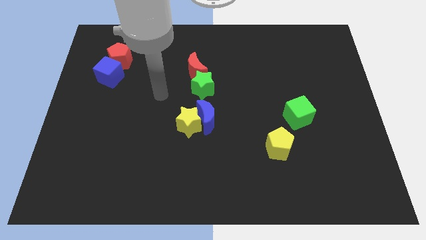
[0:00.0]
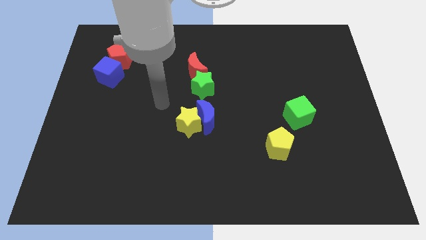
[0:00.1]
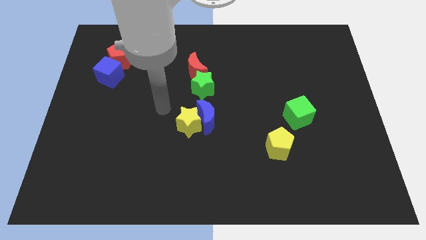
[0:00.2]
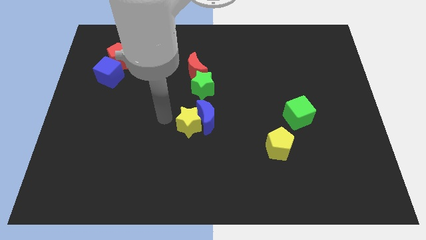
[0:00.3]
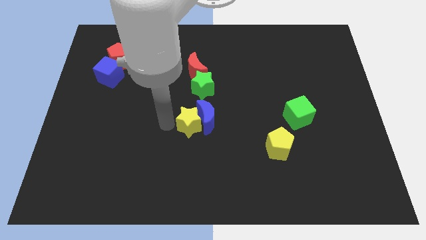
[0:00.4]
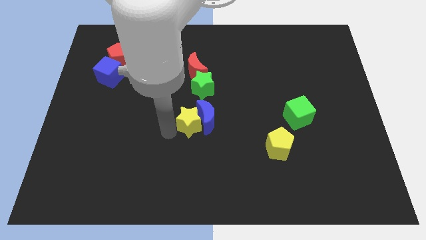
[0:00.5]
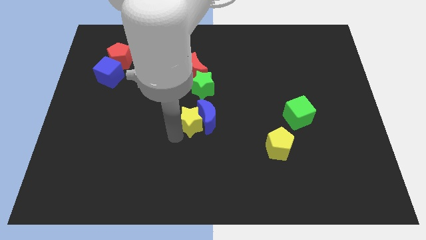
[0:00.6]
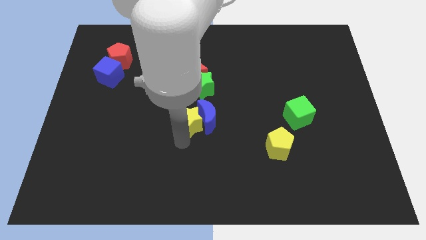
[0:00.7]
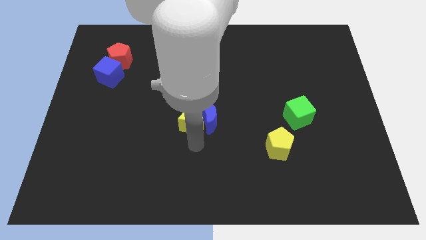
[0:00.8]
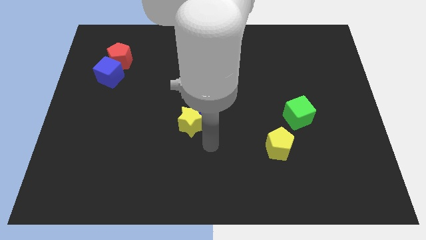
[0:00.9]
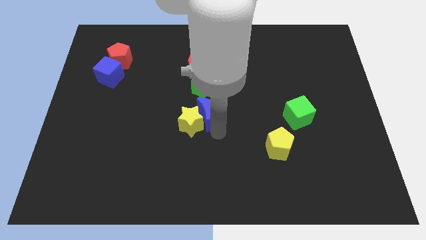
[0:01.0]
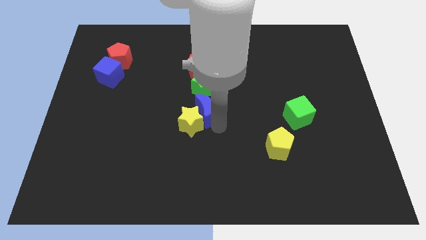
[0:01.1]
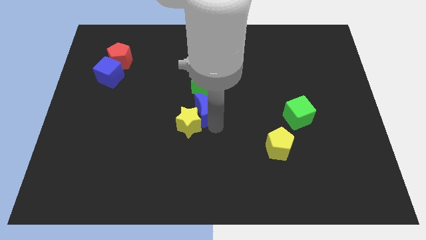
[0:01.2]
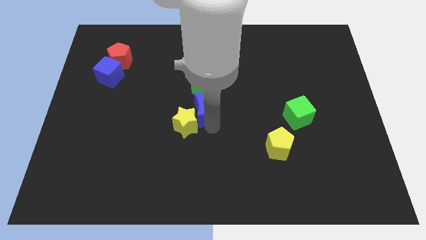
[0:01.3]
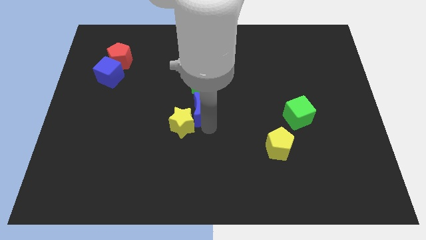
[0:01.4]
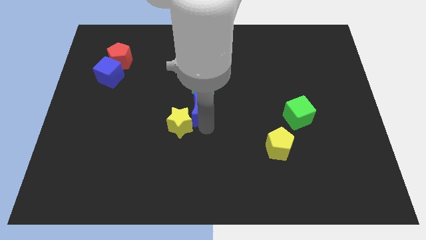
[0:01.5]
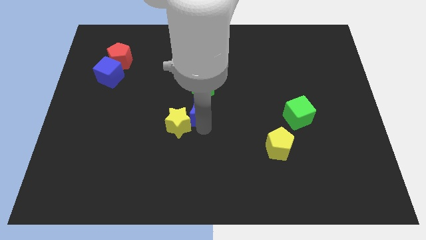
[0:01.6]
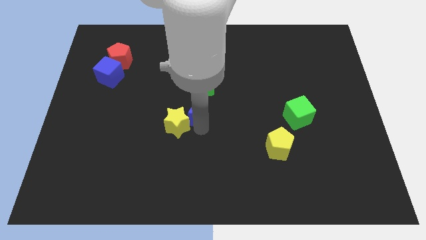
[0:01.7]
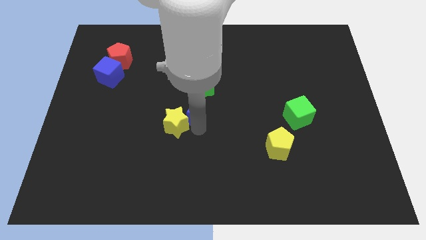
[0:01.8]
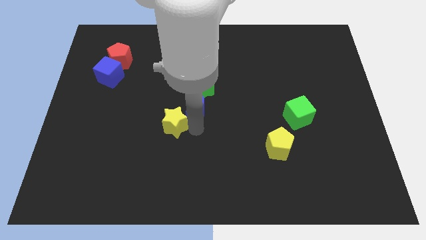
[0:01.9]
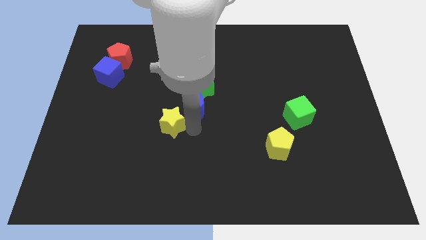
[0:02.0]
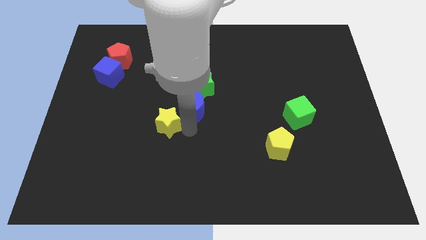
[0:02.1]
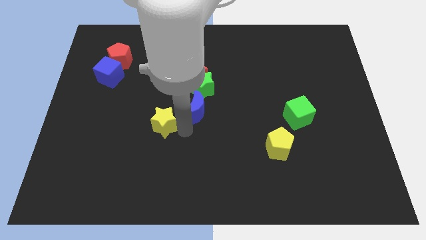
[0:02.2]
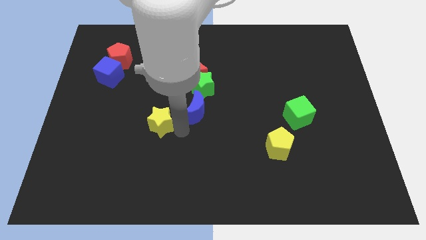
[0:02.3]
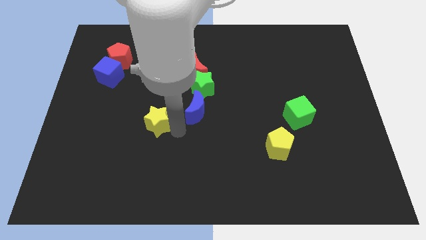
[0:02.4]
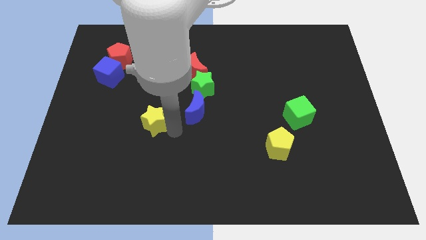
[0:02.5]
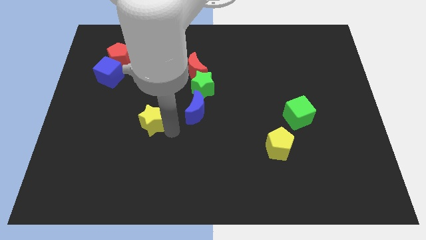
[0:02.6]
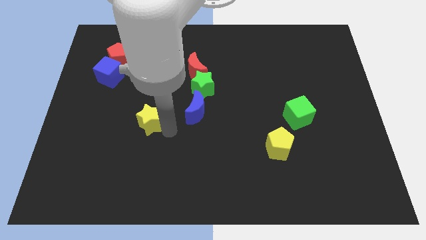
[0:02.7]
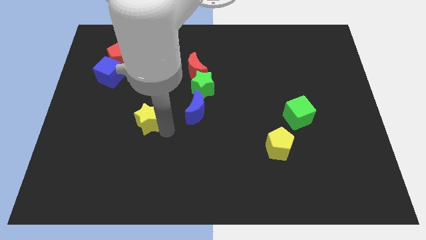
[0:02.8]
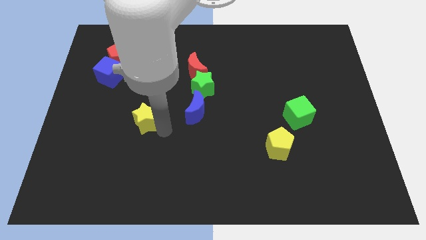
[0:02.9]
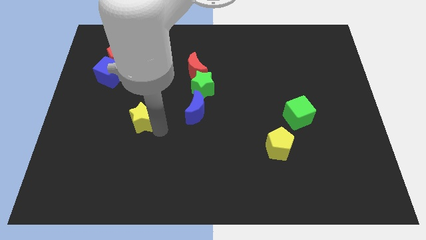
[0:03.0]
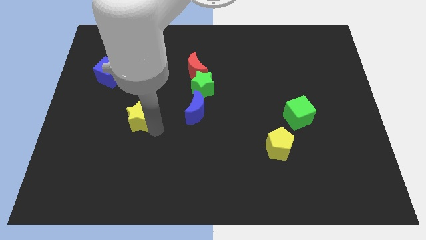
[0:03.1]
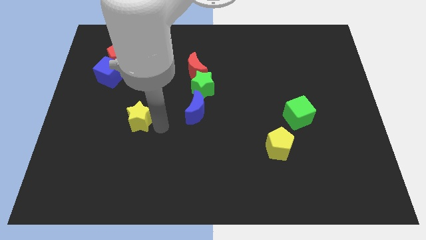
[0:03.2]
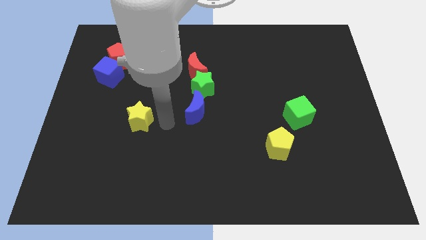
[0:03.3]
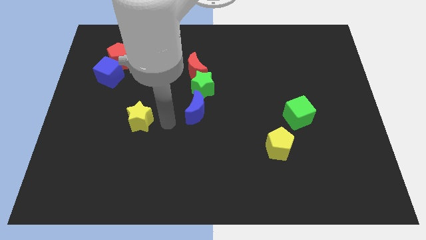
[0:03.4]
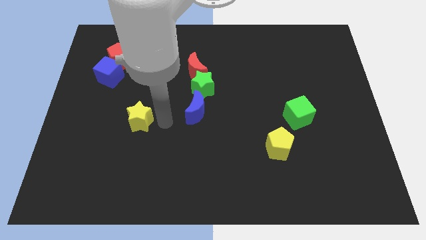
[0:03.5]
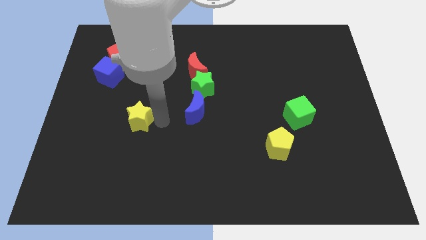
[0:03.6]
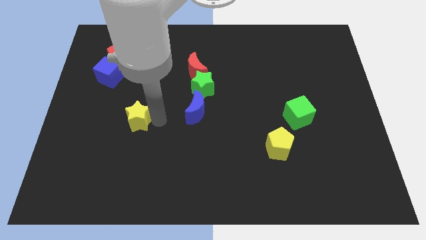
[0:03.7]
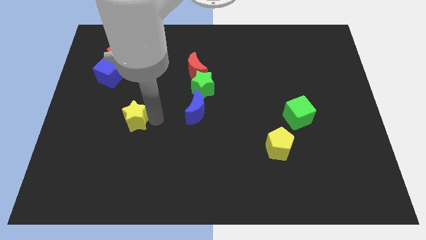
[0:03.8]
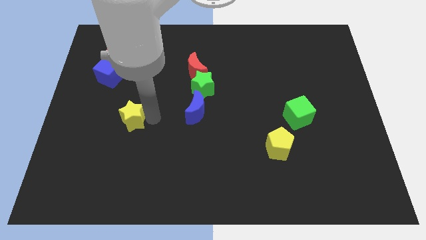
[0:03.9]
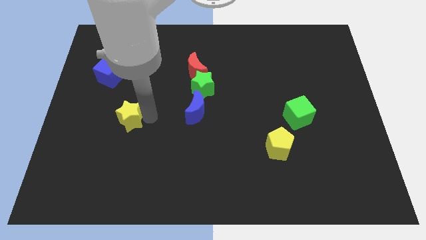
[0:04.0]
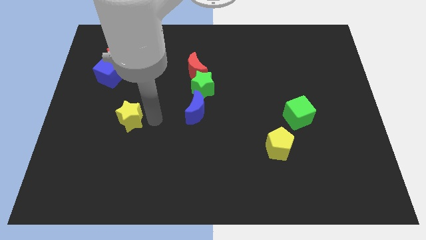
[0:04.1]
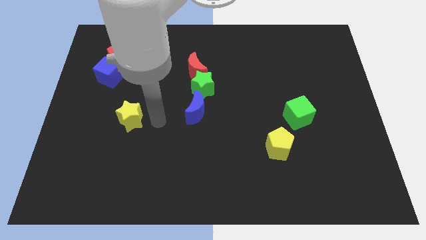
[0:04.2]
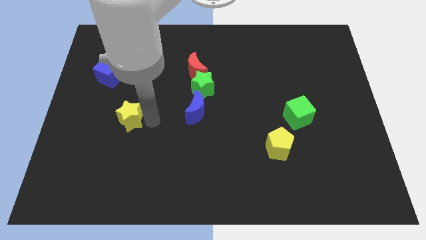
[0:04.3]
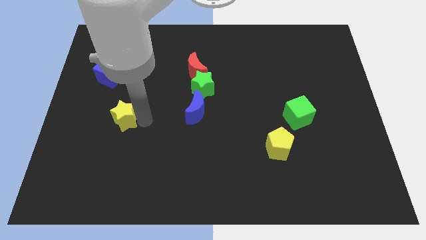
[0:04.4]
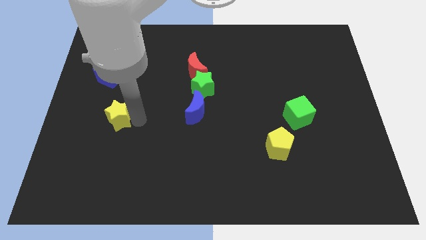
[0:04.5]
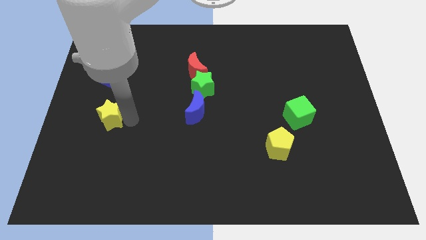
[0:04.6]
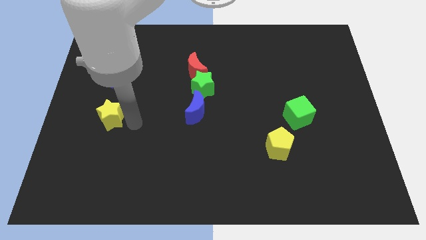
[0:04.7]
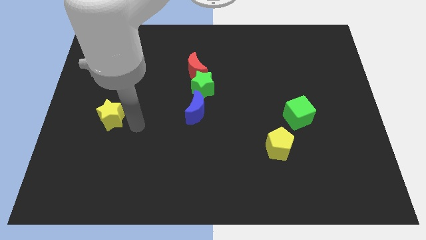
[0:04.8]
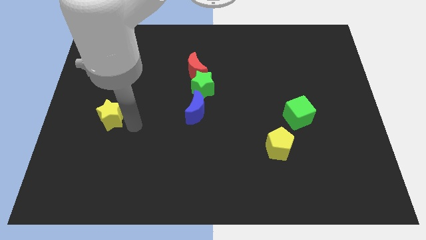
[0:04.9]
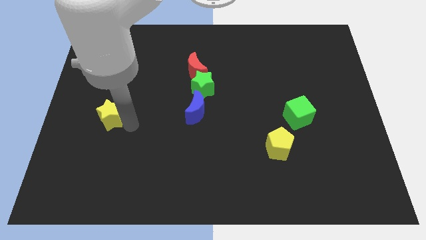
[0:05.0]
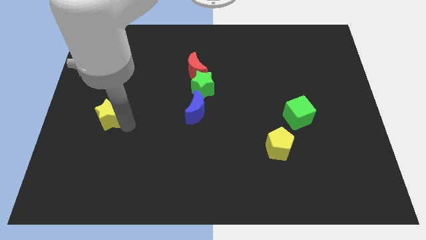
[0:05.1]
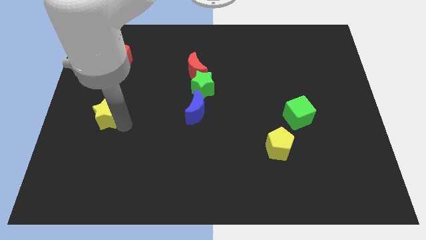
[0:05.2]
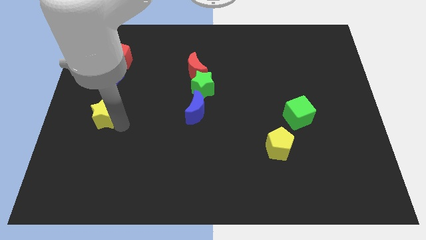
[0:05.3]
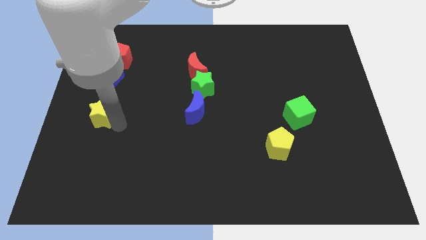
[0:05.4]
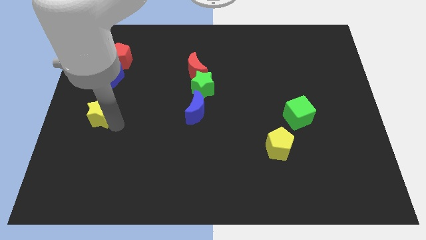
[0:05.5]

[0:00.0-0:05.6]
put the yellow star to the center left

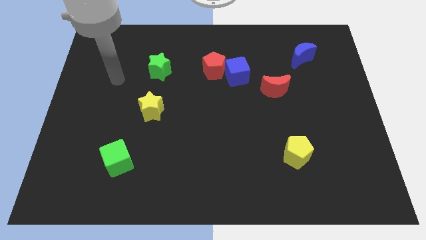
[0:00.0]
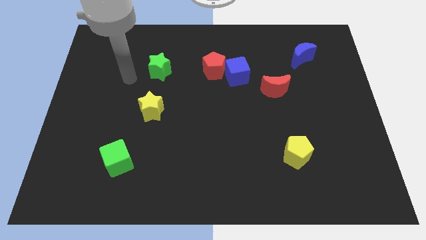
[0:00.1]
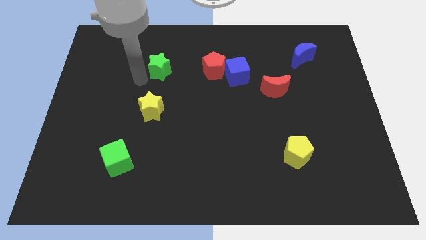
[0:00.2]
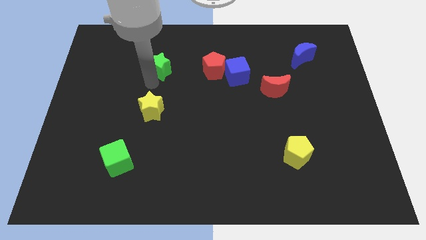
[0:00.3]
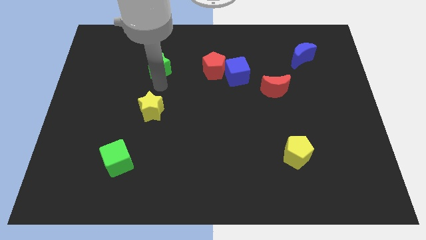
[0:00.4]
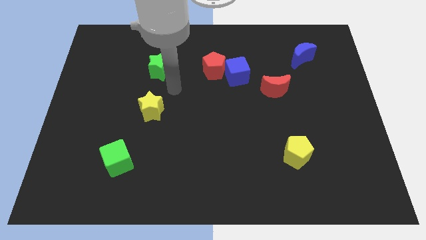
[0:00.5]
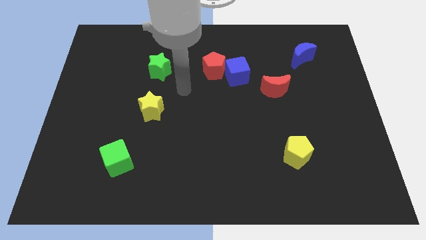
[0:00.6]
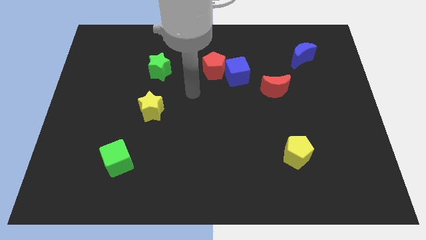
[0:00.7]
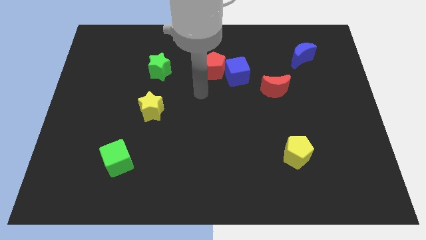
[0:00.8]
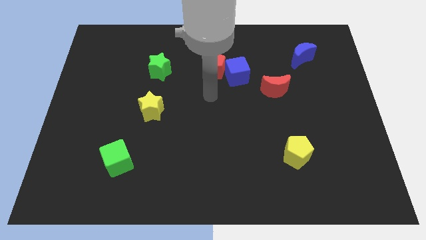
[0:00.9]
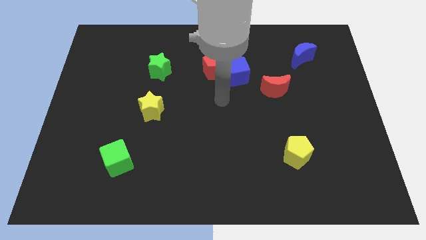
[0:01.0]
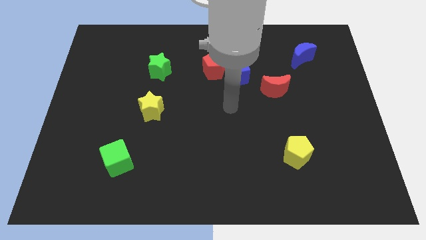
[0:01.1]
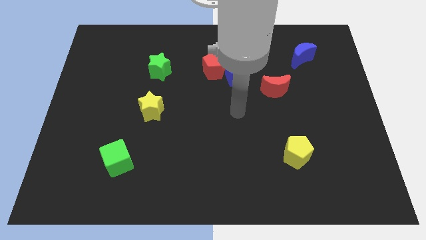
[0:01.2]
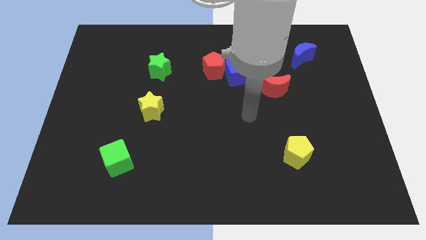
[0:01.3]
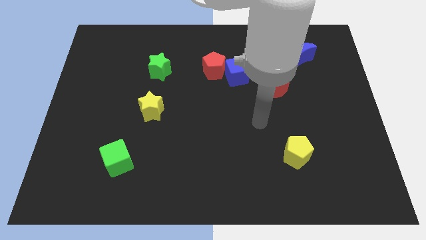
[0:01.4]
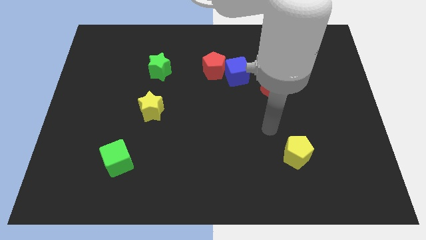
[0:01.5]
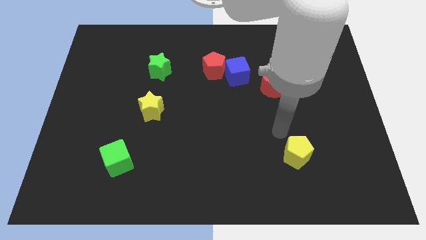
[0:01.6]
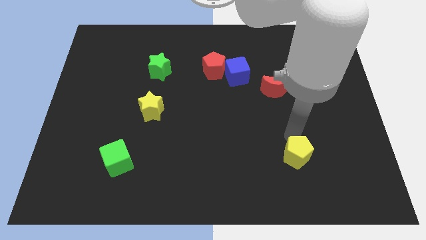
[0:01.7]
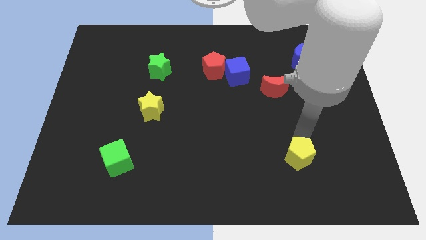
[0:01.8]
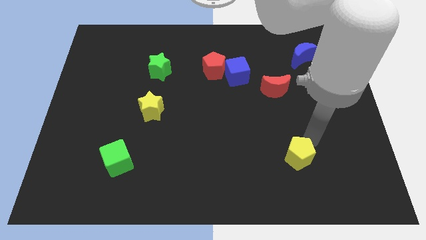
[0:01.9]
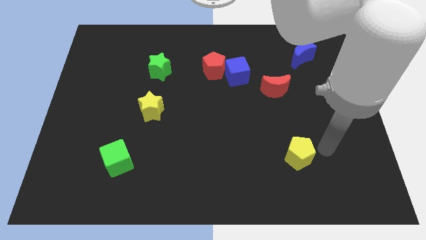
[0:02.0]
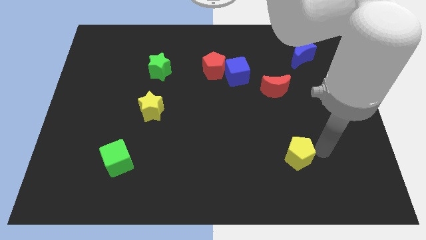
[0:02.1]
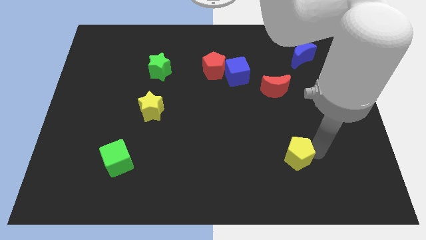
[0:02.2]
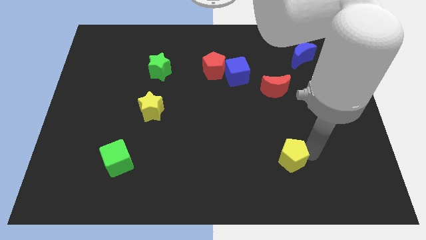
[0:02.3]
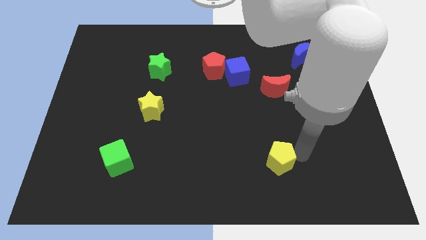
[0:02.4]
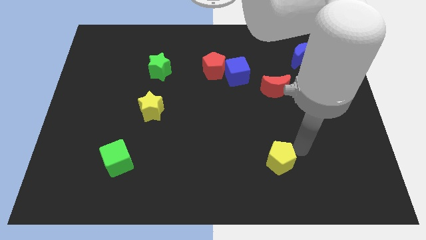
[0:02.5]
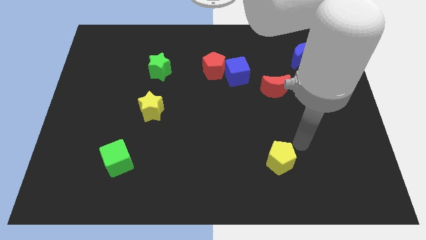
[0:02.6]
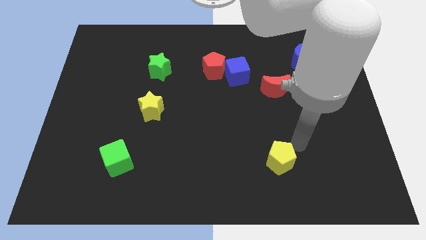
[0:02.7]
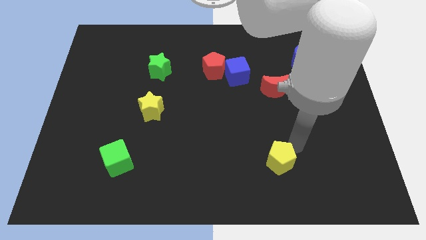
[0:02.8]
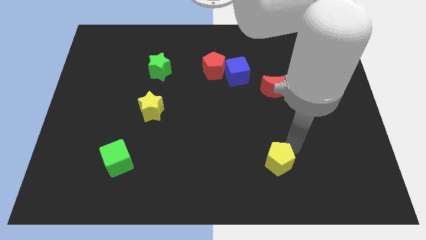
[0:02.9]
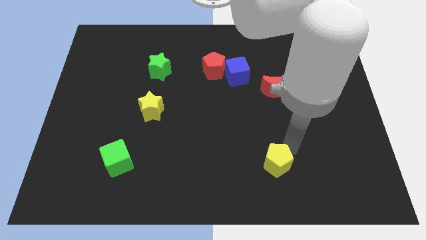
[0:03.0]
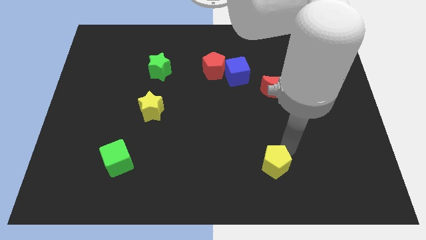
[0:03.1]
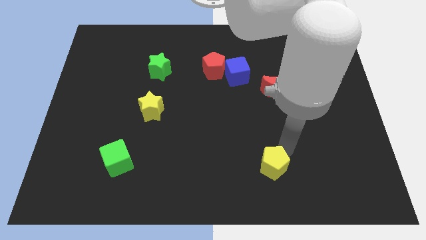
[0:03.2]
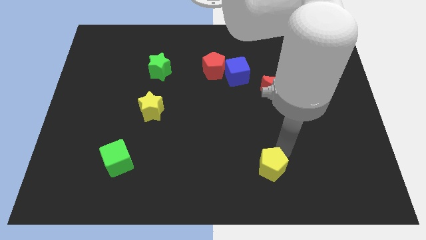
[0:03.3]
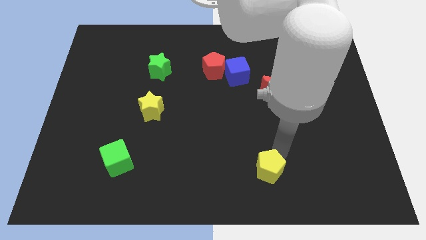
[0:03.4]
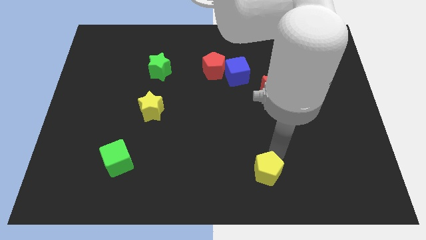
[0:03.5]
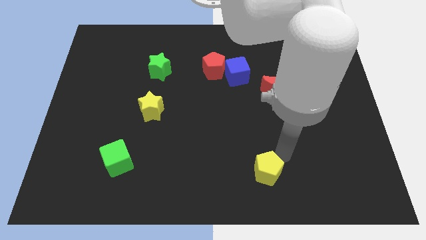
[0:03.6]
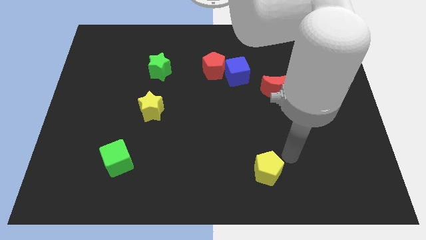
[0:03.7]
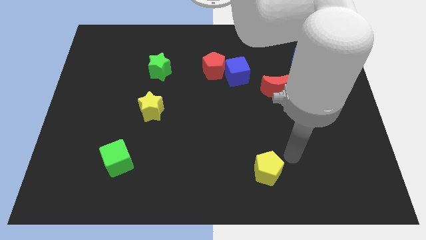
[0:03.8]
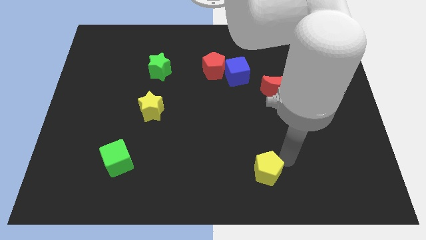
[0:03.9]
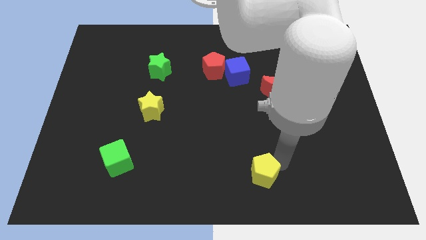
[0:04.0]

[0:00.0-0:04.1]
slide the yellow pentagon to the bottom side
